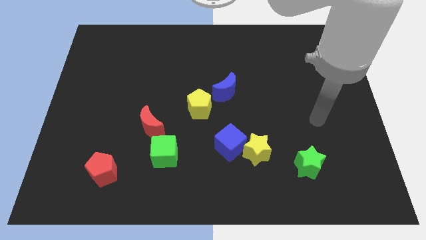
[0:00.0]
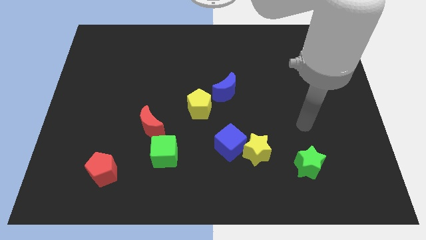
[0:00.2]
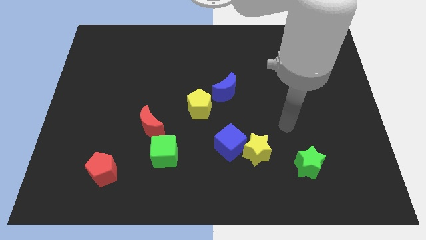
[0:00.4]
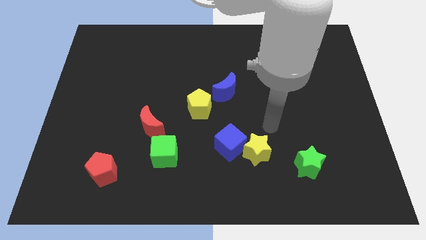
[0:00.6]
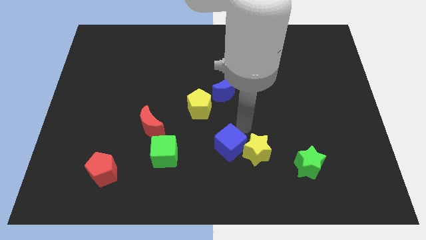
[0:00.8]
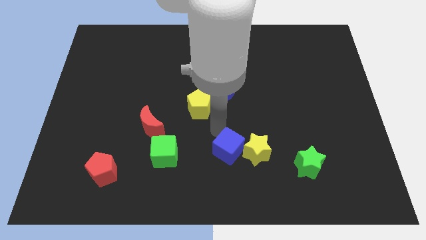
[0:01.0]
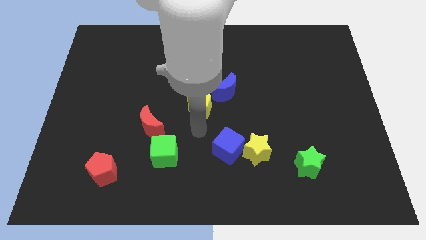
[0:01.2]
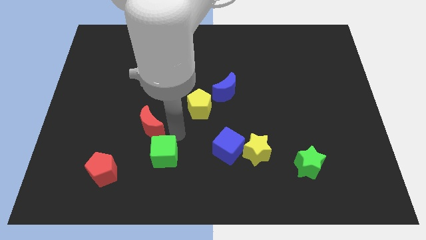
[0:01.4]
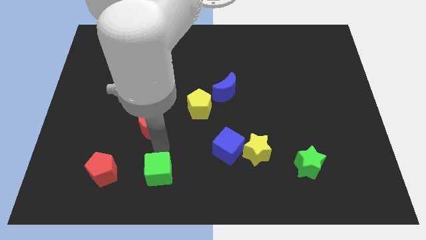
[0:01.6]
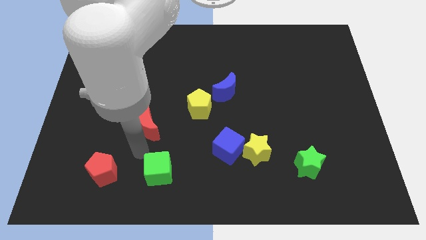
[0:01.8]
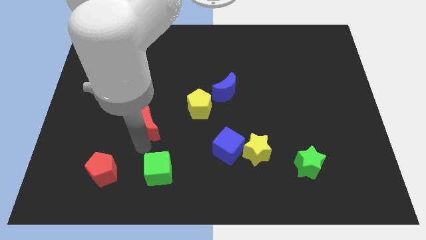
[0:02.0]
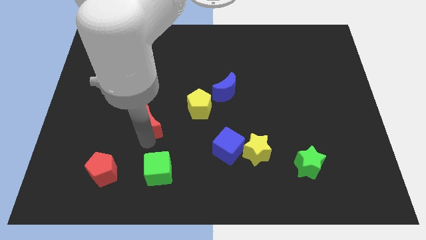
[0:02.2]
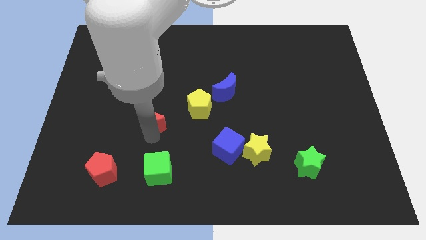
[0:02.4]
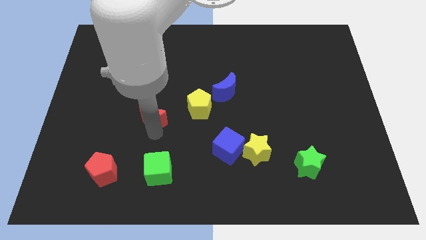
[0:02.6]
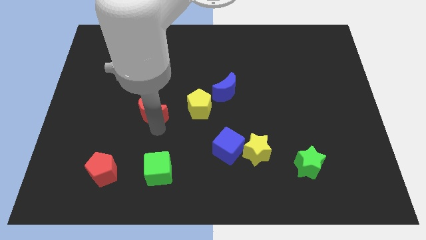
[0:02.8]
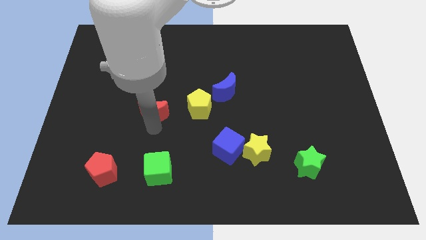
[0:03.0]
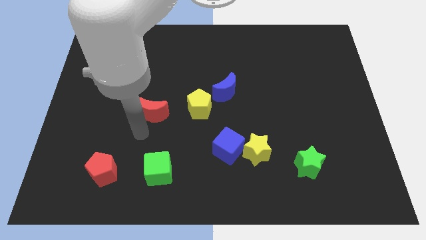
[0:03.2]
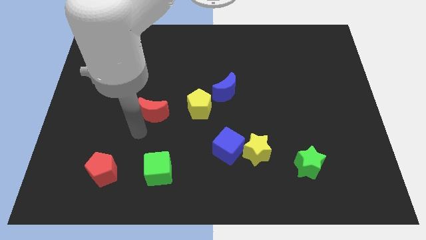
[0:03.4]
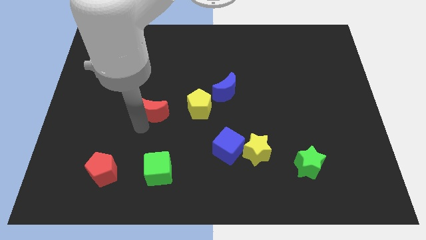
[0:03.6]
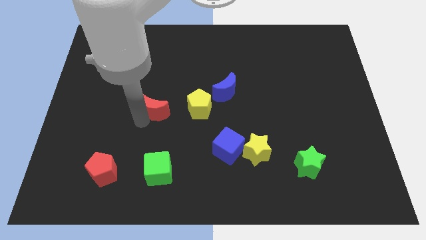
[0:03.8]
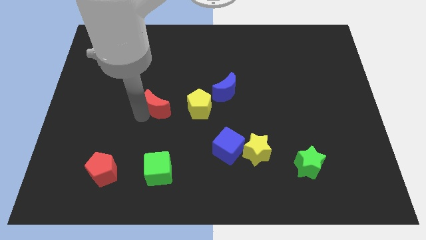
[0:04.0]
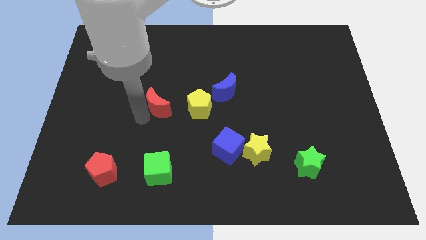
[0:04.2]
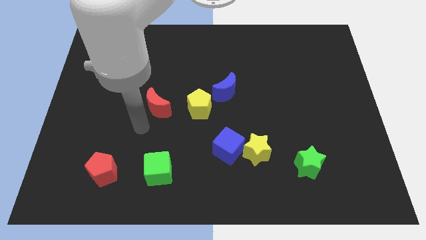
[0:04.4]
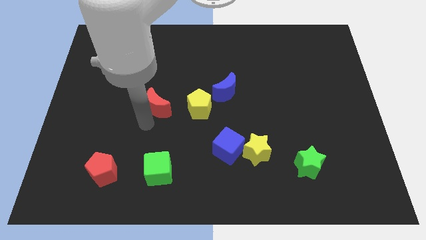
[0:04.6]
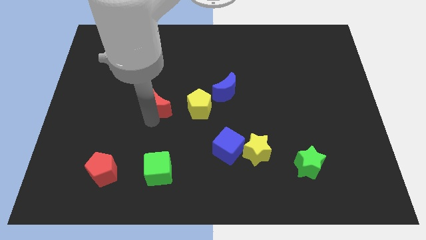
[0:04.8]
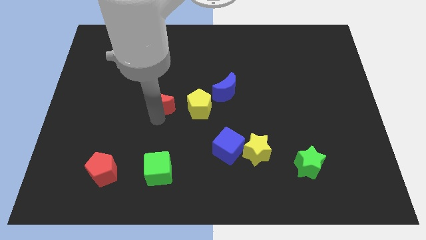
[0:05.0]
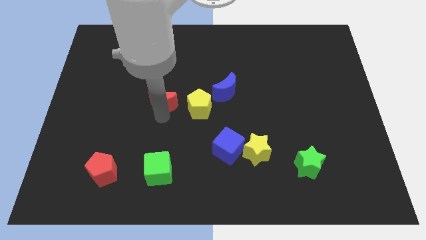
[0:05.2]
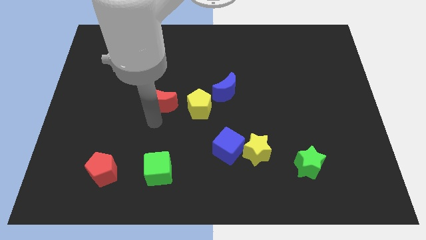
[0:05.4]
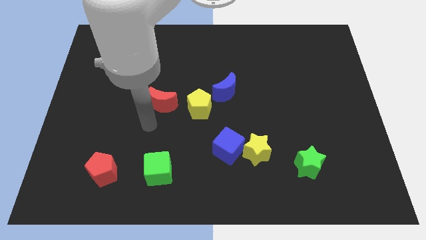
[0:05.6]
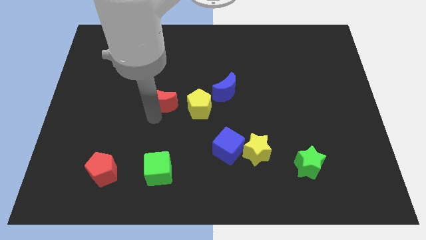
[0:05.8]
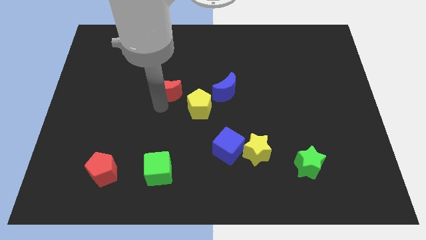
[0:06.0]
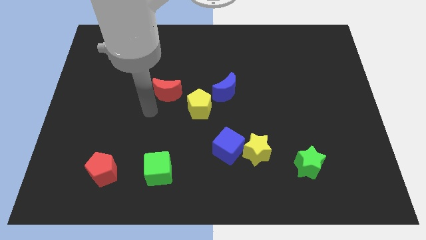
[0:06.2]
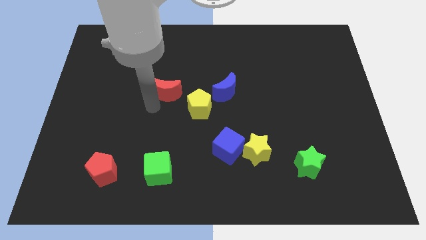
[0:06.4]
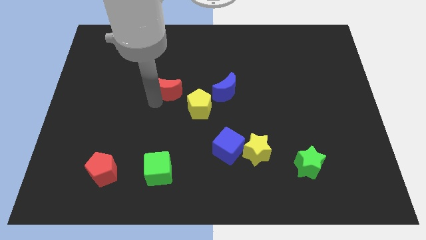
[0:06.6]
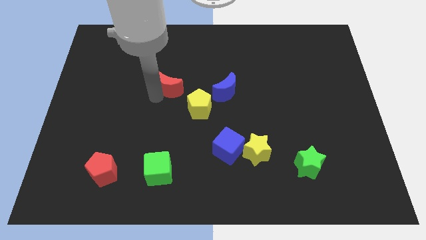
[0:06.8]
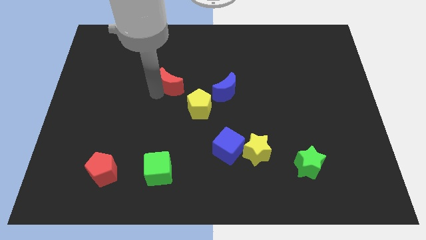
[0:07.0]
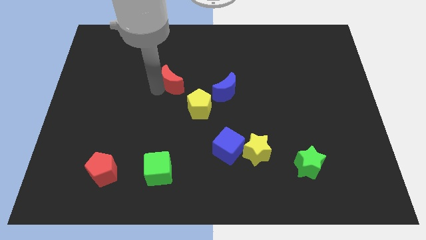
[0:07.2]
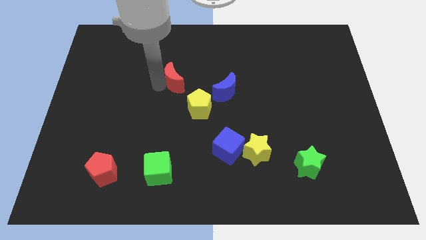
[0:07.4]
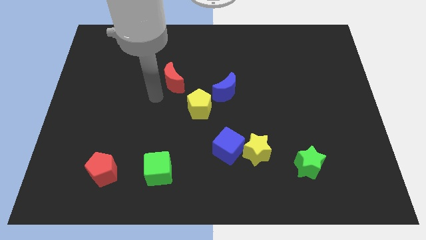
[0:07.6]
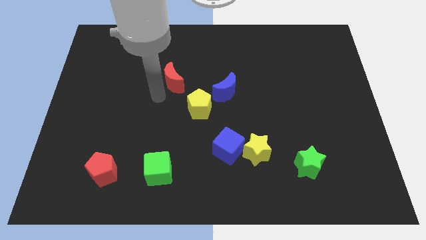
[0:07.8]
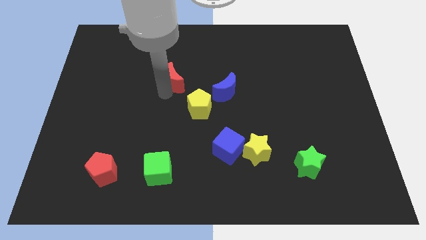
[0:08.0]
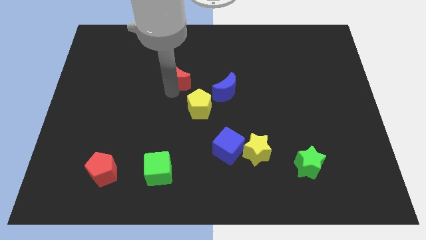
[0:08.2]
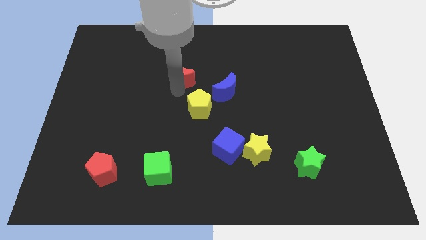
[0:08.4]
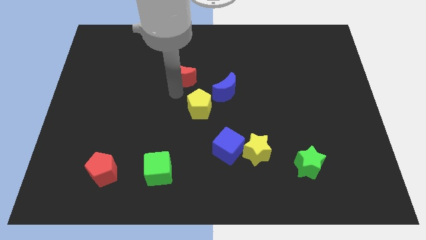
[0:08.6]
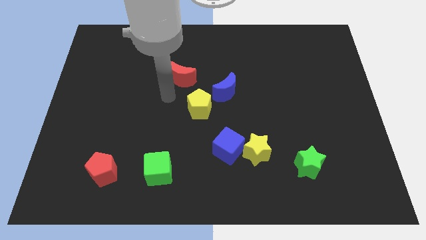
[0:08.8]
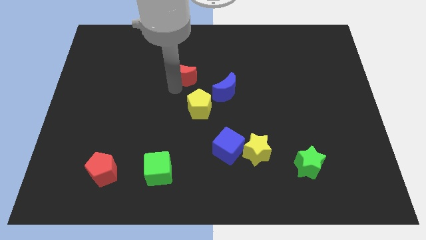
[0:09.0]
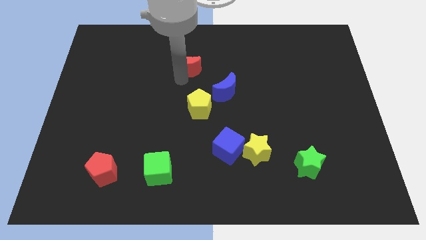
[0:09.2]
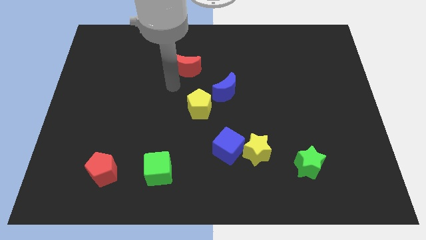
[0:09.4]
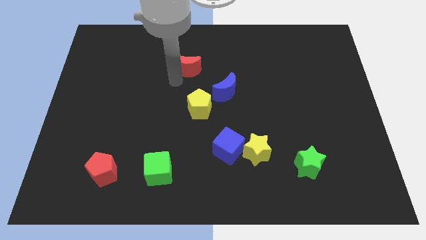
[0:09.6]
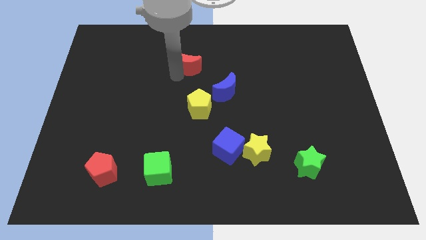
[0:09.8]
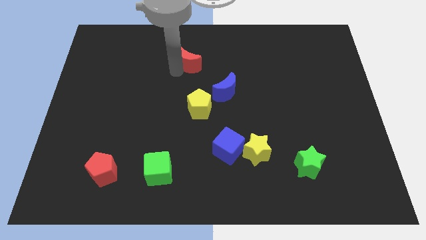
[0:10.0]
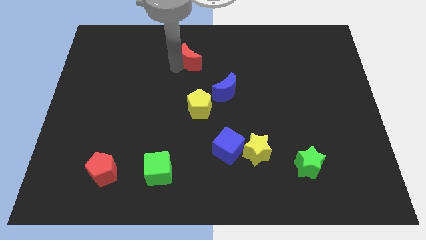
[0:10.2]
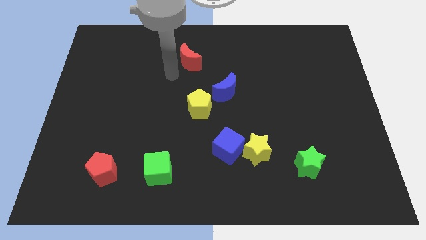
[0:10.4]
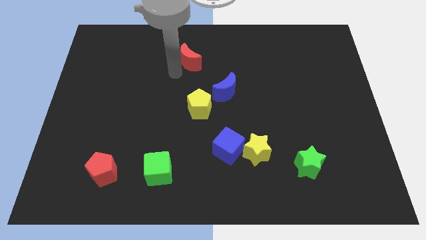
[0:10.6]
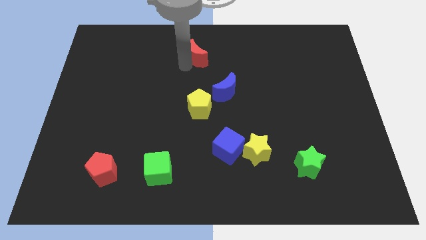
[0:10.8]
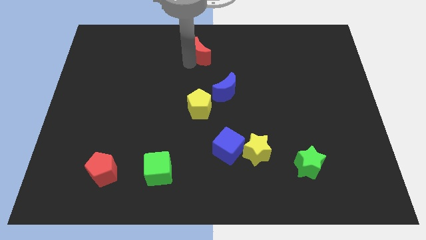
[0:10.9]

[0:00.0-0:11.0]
put the red moon to the towards your base
